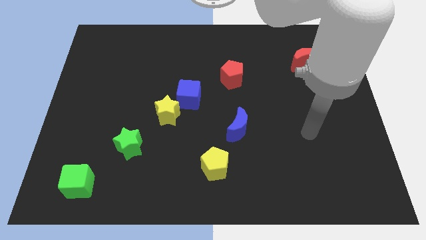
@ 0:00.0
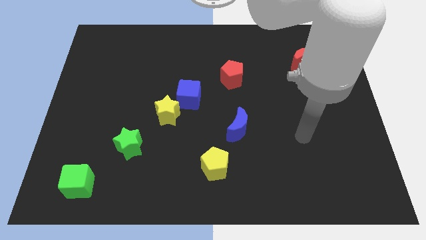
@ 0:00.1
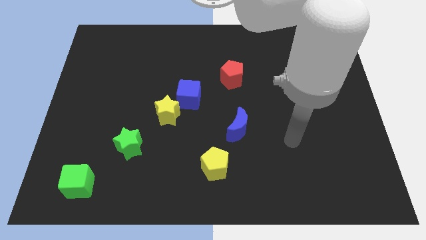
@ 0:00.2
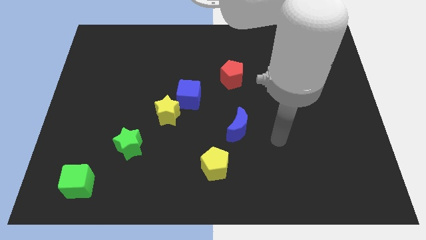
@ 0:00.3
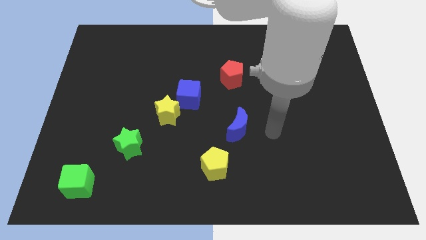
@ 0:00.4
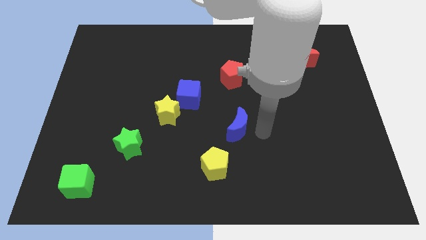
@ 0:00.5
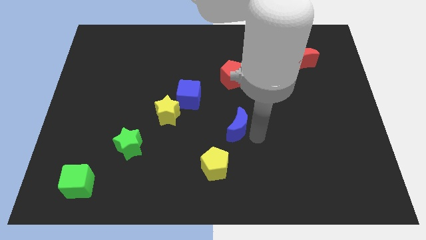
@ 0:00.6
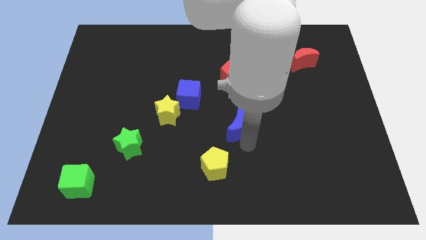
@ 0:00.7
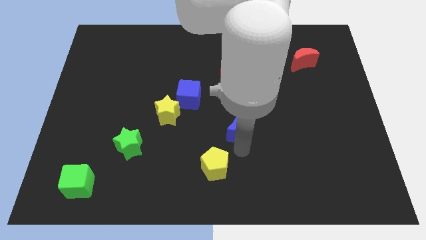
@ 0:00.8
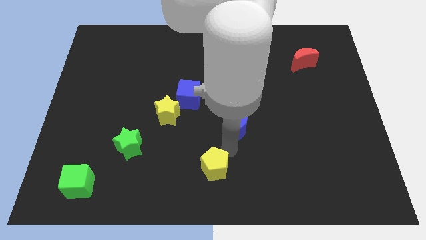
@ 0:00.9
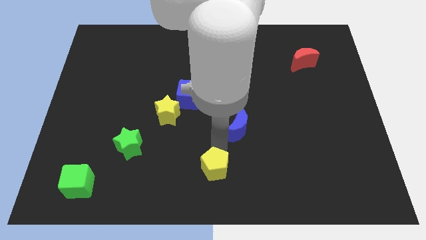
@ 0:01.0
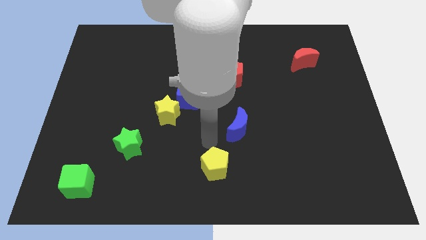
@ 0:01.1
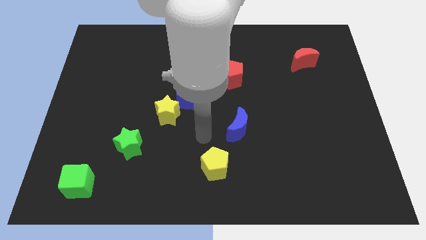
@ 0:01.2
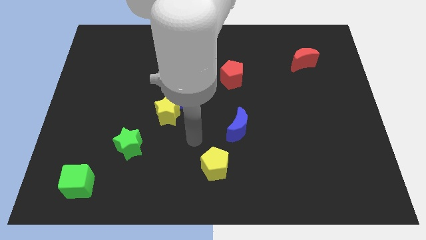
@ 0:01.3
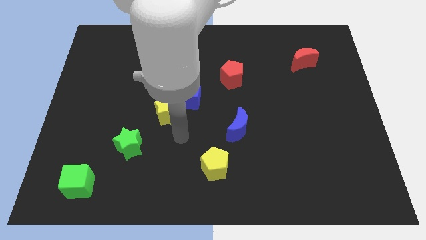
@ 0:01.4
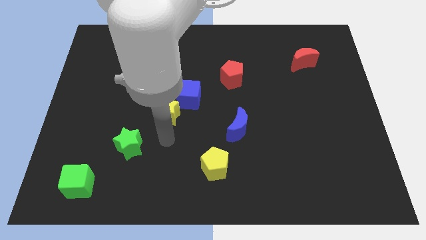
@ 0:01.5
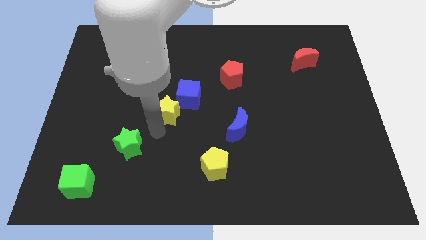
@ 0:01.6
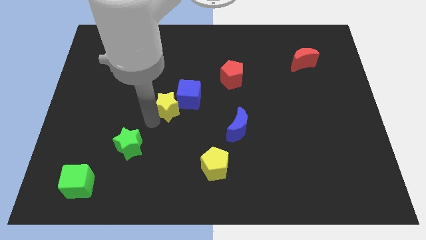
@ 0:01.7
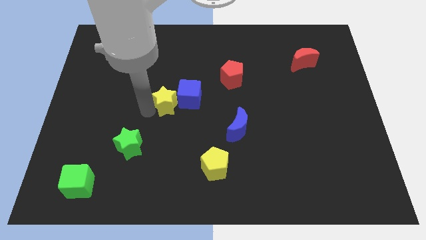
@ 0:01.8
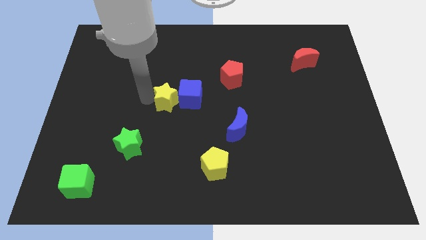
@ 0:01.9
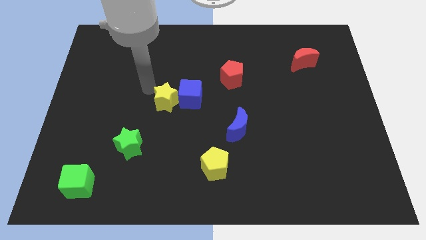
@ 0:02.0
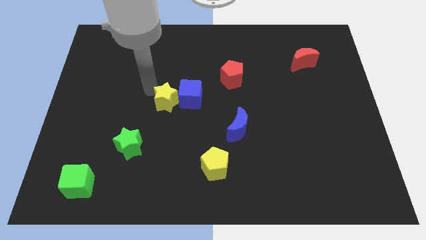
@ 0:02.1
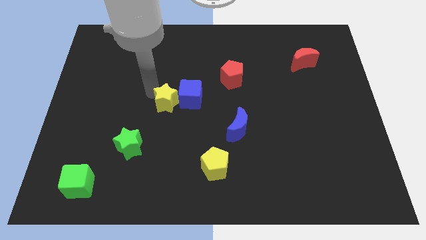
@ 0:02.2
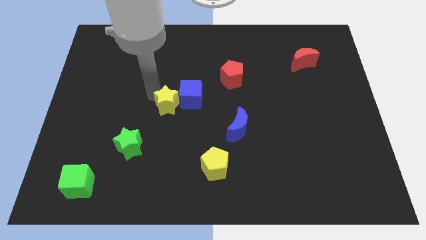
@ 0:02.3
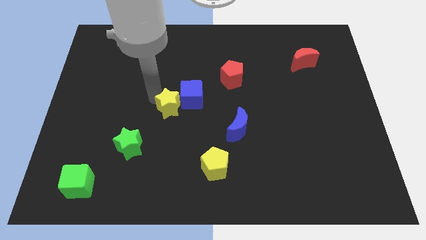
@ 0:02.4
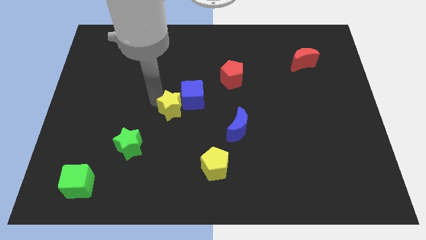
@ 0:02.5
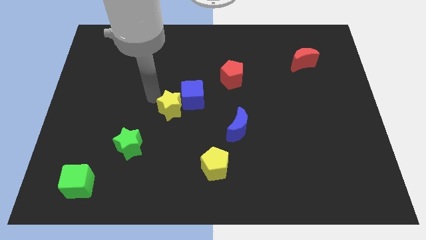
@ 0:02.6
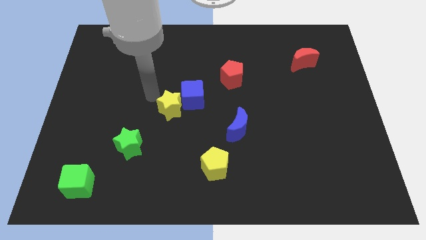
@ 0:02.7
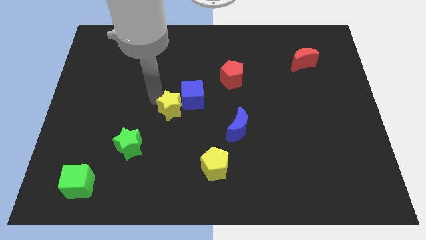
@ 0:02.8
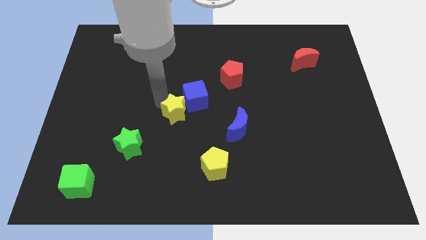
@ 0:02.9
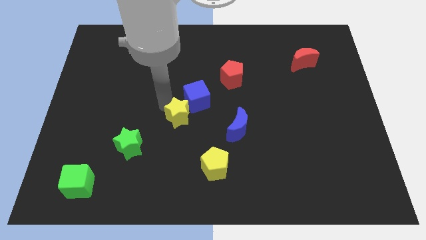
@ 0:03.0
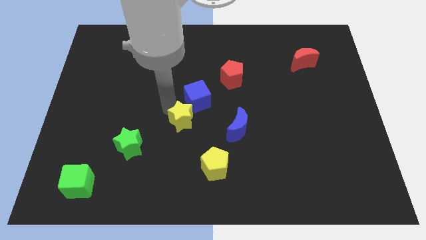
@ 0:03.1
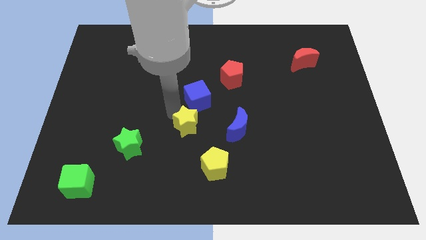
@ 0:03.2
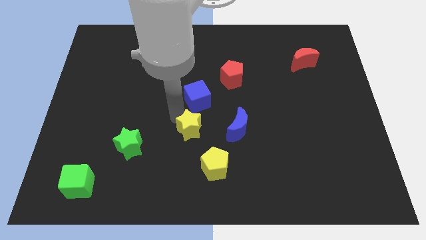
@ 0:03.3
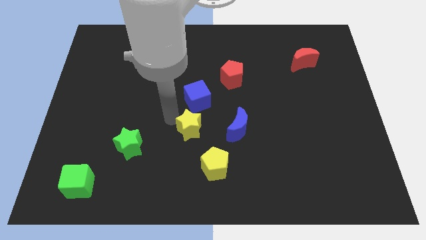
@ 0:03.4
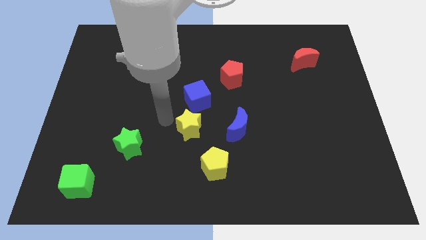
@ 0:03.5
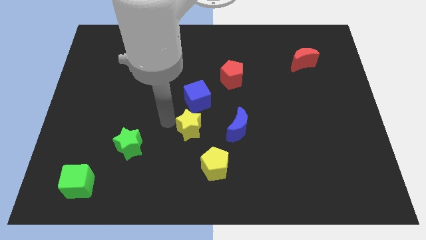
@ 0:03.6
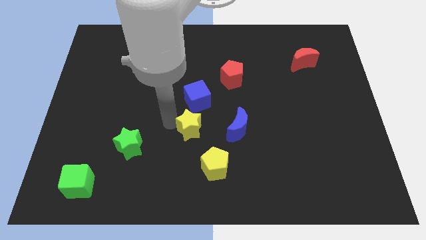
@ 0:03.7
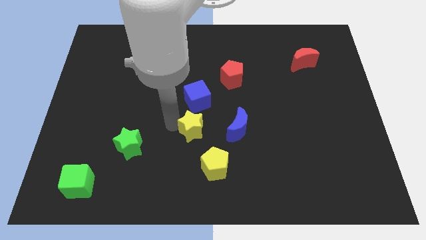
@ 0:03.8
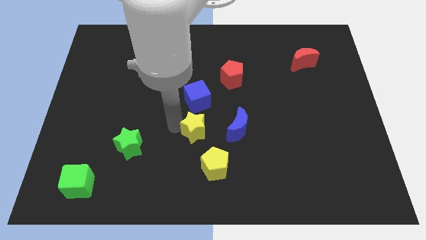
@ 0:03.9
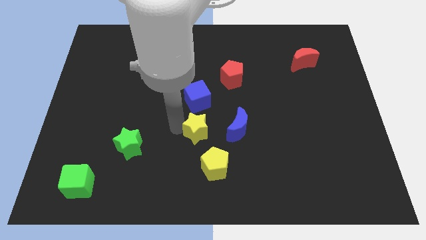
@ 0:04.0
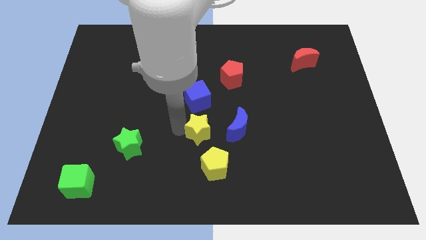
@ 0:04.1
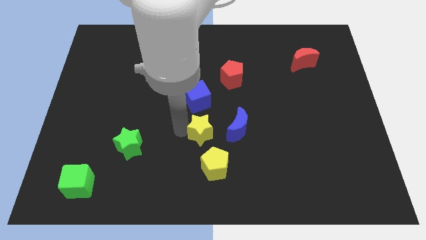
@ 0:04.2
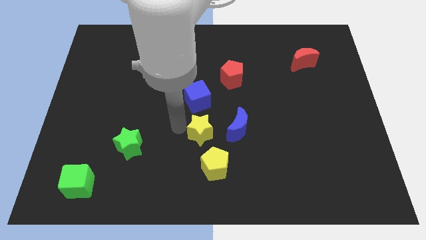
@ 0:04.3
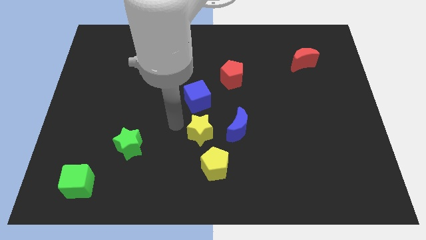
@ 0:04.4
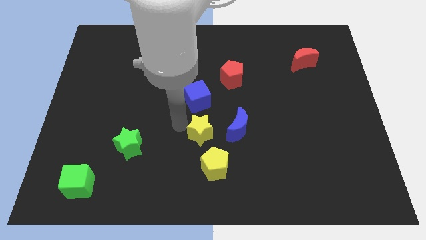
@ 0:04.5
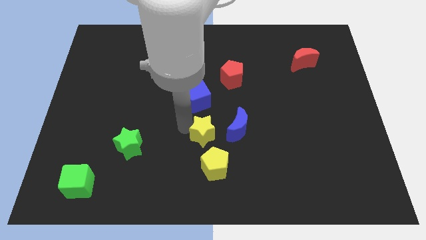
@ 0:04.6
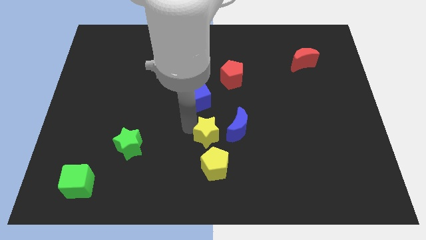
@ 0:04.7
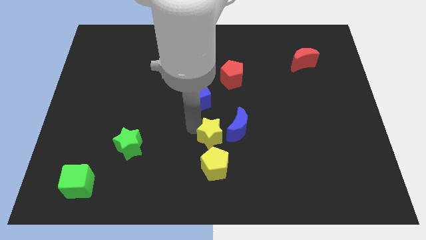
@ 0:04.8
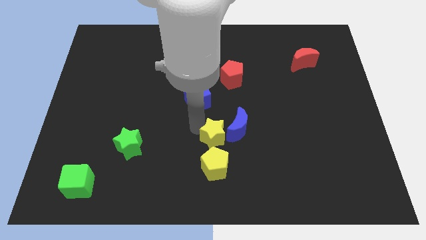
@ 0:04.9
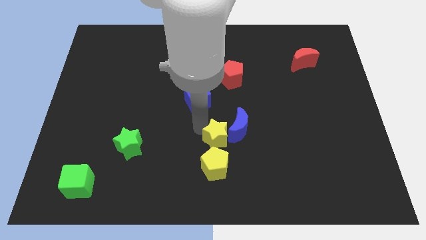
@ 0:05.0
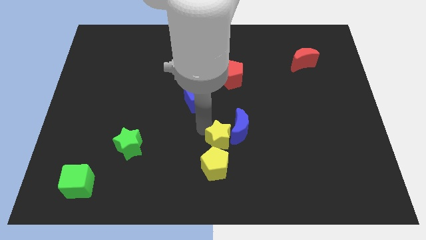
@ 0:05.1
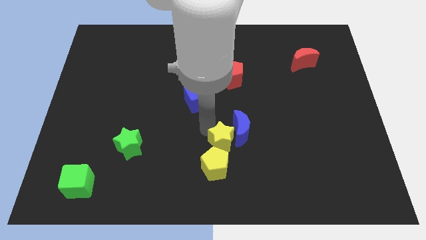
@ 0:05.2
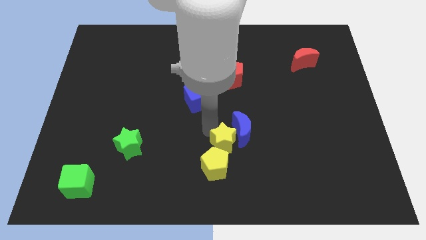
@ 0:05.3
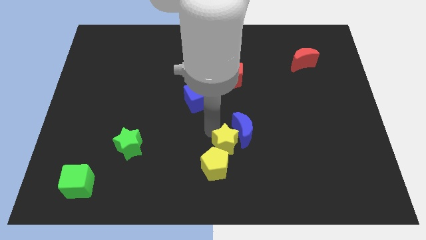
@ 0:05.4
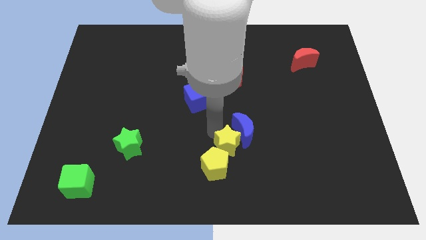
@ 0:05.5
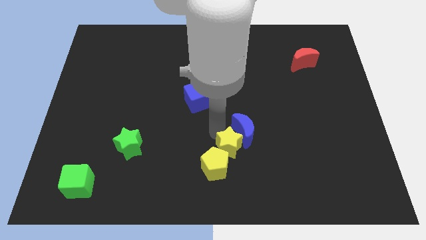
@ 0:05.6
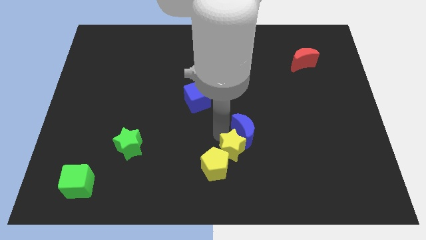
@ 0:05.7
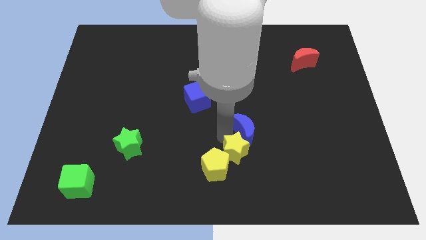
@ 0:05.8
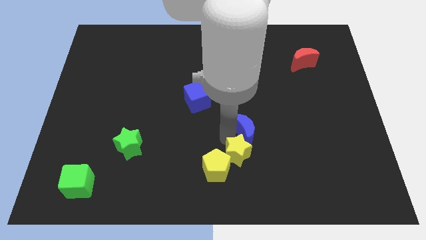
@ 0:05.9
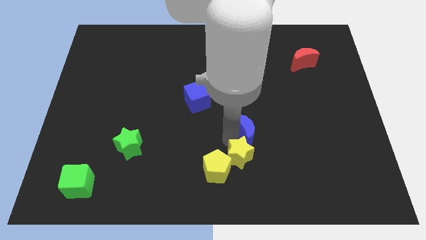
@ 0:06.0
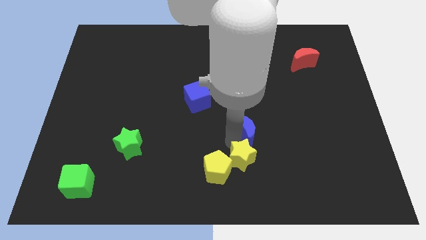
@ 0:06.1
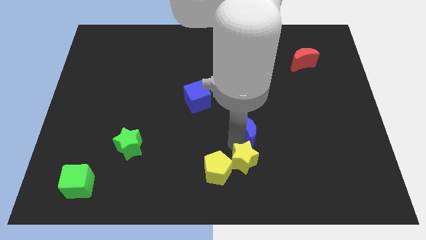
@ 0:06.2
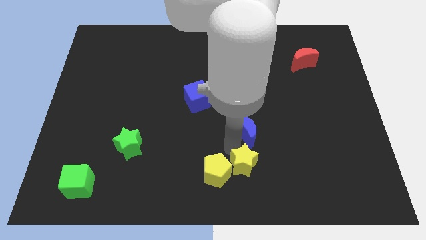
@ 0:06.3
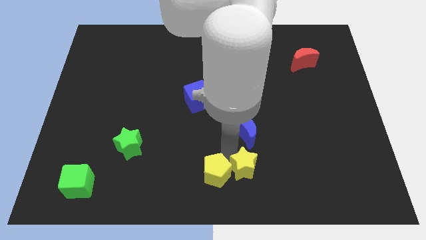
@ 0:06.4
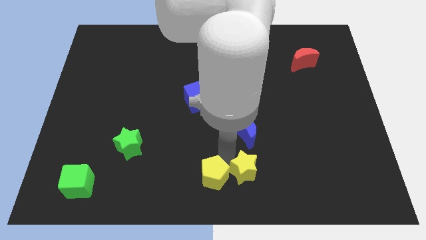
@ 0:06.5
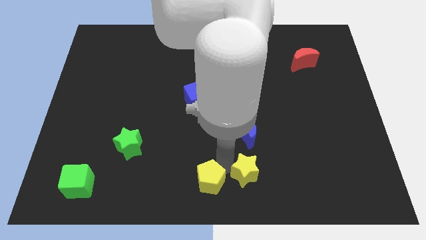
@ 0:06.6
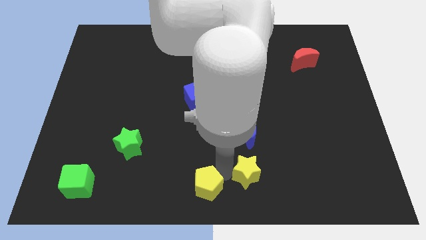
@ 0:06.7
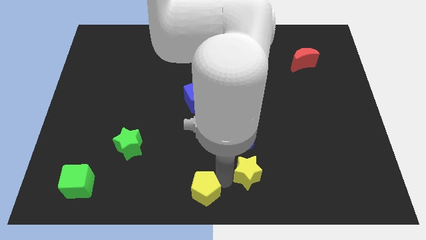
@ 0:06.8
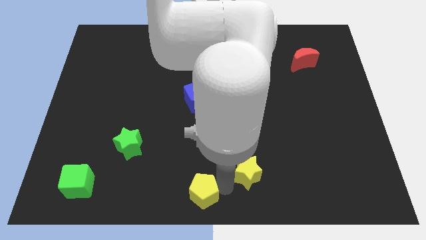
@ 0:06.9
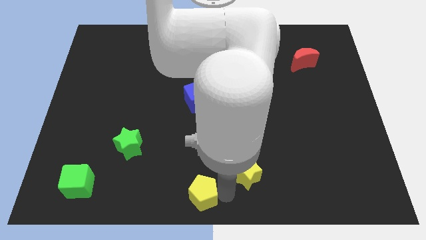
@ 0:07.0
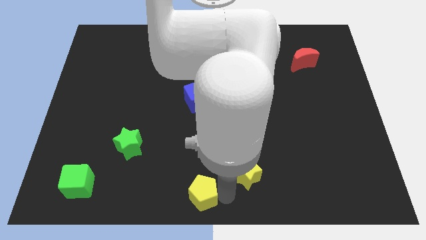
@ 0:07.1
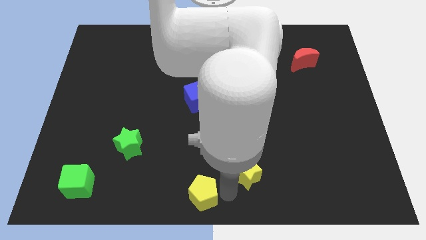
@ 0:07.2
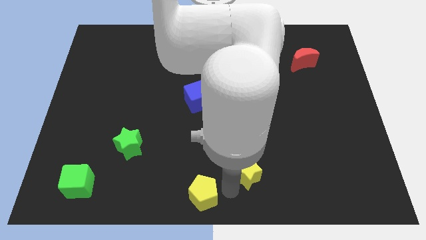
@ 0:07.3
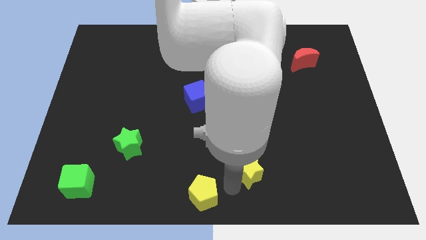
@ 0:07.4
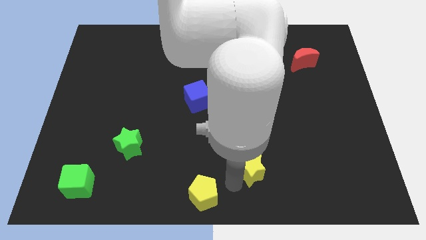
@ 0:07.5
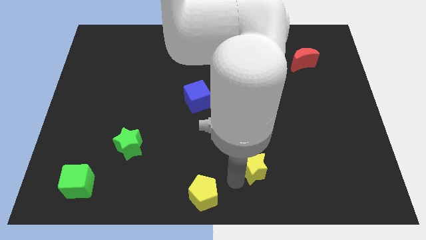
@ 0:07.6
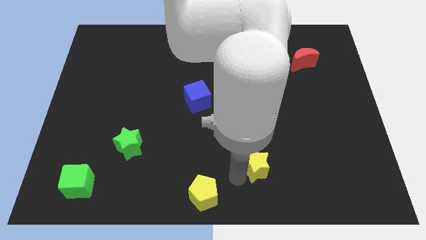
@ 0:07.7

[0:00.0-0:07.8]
slide the yellow star to the bottom right of the blue moon
